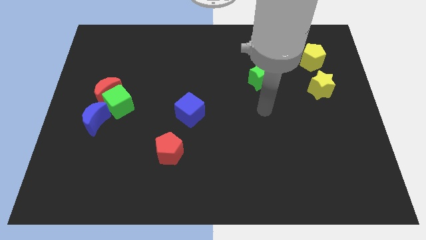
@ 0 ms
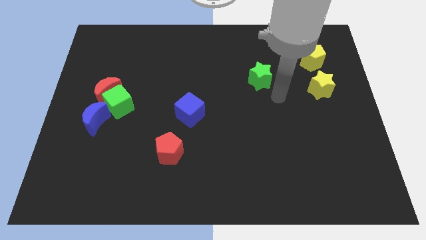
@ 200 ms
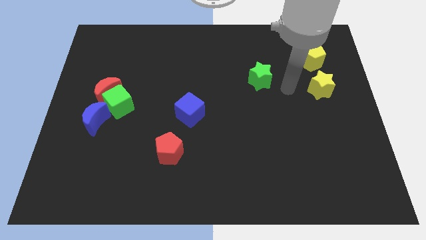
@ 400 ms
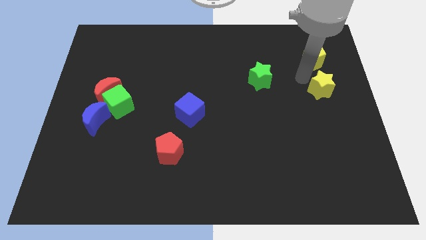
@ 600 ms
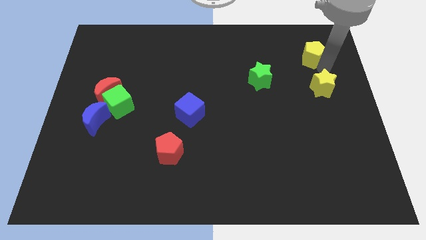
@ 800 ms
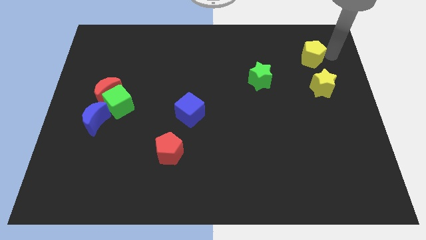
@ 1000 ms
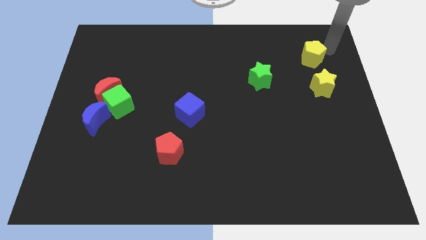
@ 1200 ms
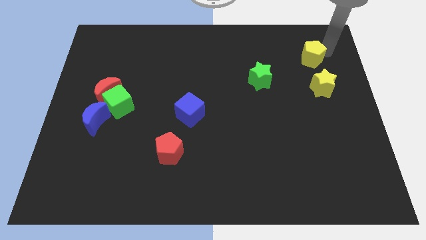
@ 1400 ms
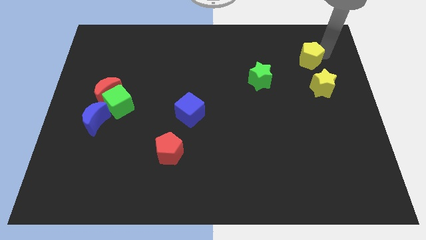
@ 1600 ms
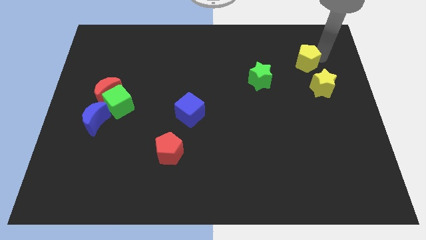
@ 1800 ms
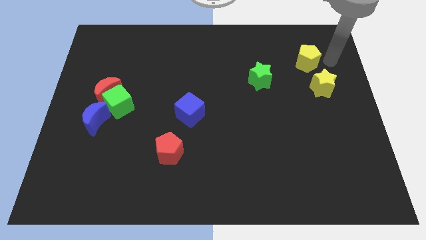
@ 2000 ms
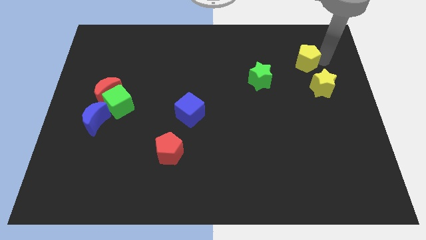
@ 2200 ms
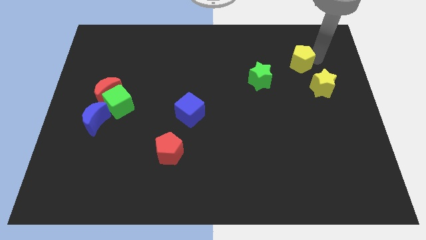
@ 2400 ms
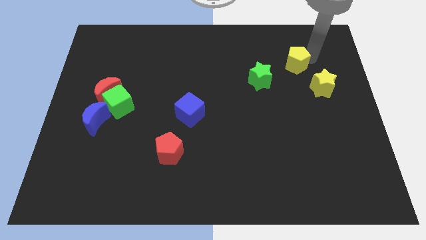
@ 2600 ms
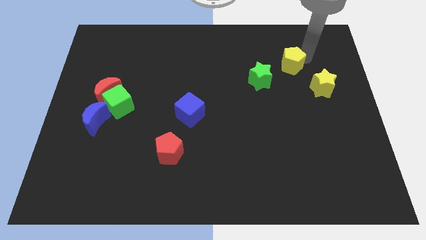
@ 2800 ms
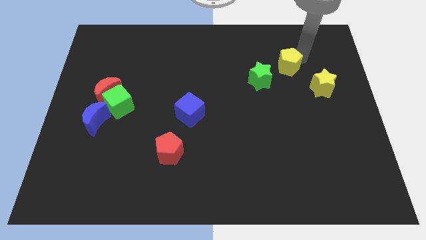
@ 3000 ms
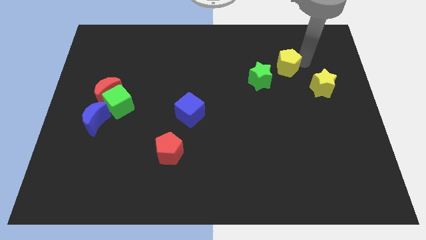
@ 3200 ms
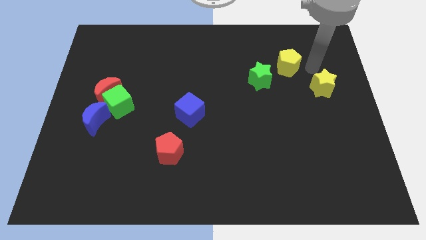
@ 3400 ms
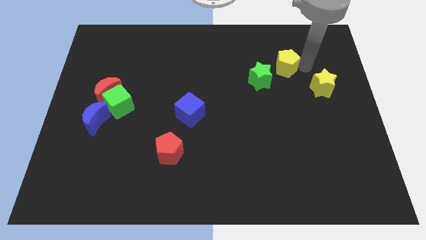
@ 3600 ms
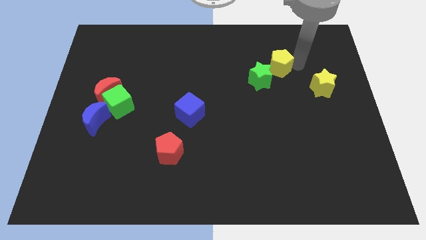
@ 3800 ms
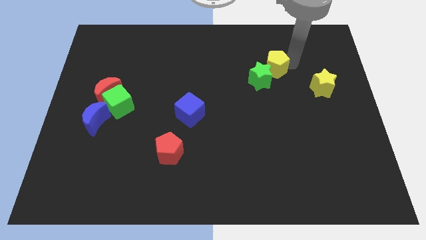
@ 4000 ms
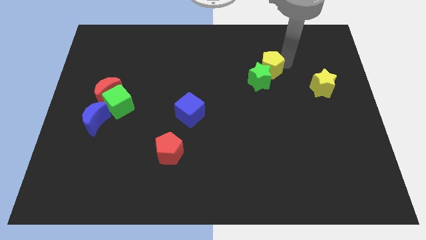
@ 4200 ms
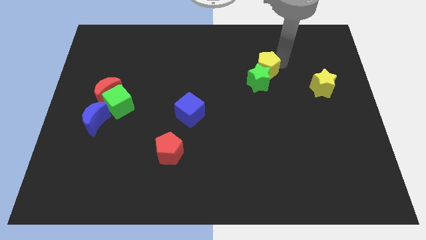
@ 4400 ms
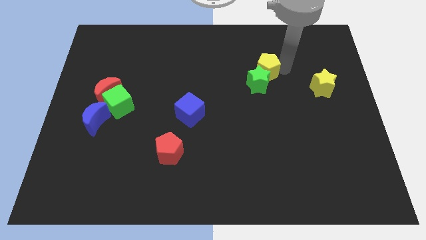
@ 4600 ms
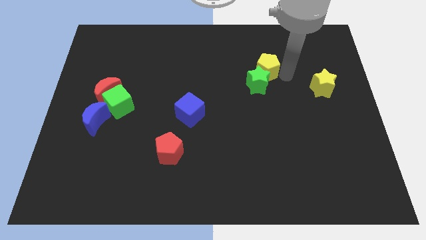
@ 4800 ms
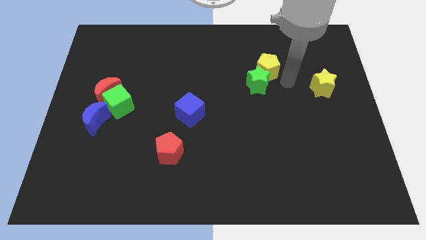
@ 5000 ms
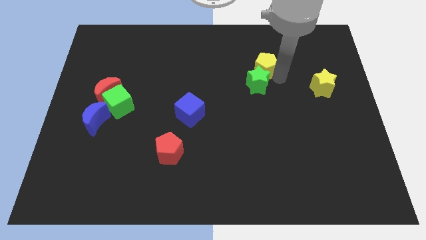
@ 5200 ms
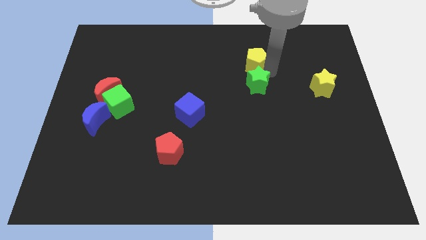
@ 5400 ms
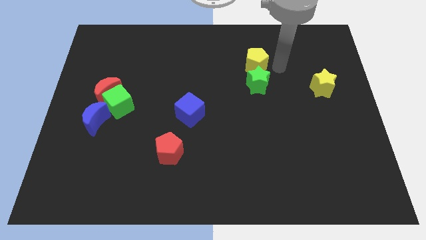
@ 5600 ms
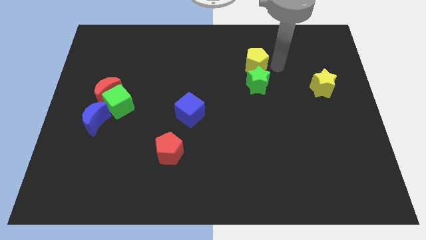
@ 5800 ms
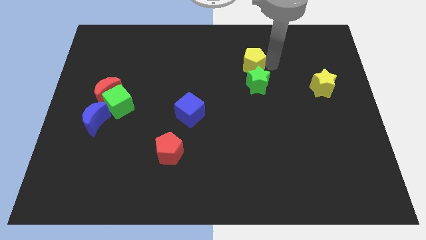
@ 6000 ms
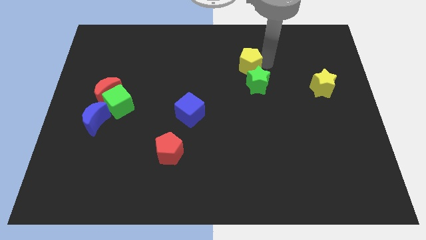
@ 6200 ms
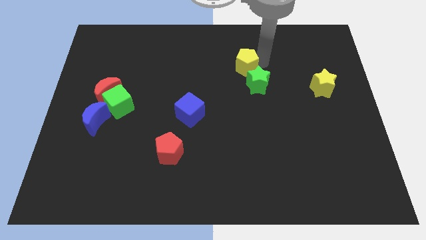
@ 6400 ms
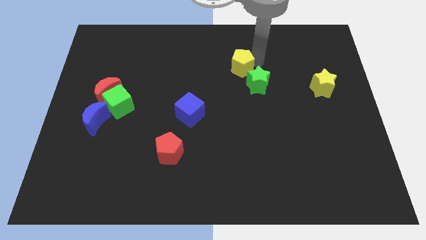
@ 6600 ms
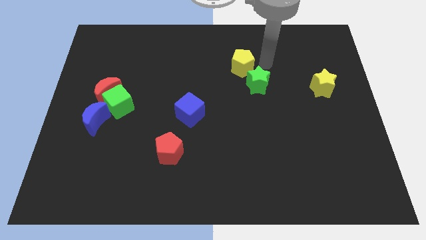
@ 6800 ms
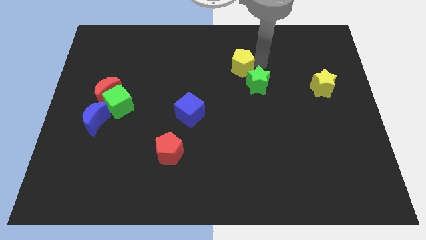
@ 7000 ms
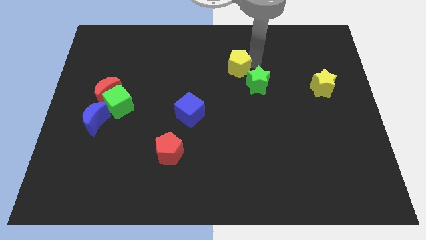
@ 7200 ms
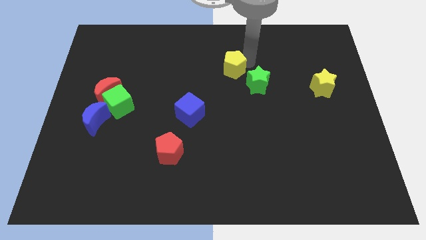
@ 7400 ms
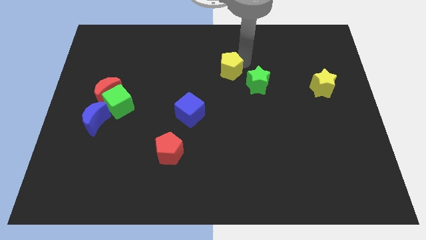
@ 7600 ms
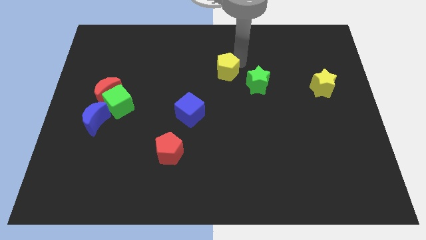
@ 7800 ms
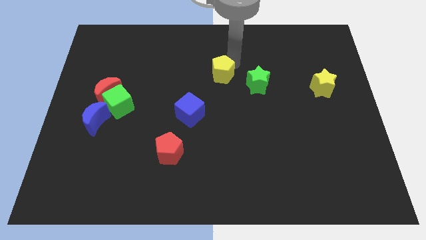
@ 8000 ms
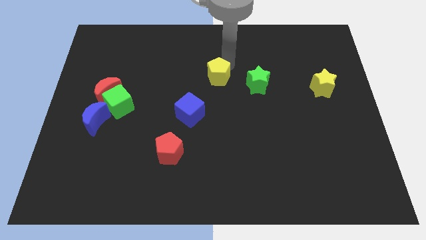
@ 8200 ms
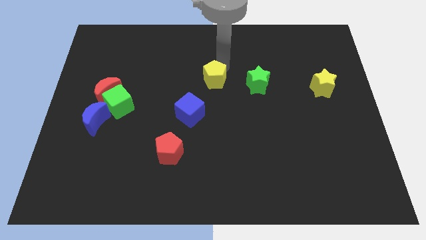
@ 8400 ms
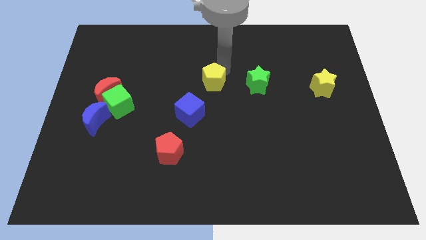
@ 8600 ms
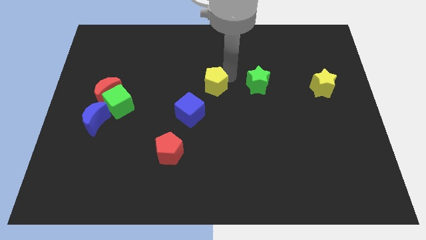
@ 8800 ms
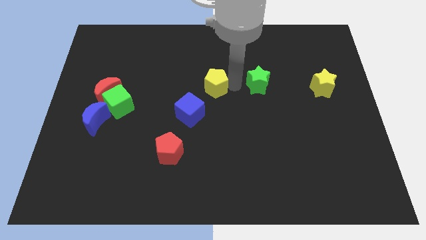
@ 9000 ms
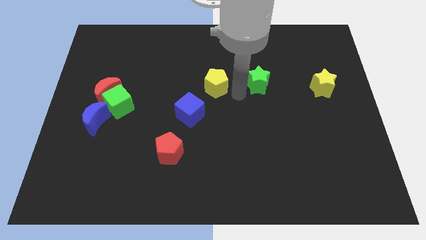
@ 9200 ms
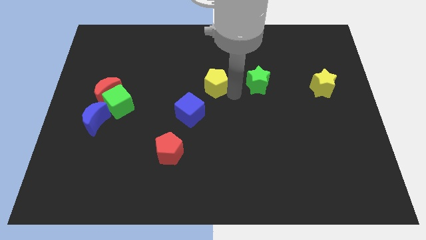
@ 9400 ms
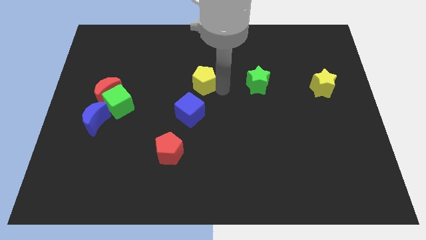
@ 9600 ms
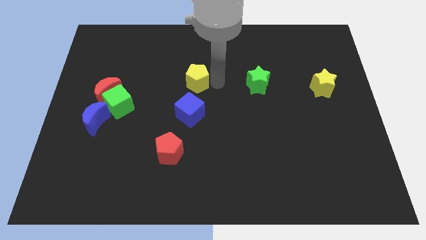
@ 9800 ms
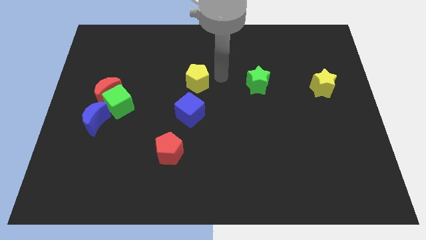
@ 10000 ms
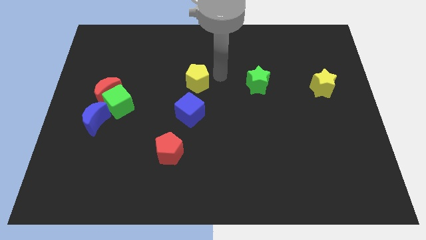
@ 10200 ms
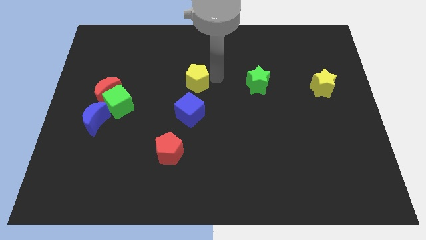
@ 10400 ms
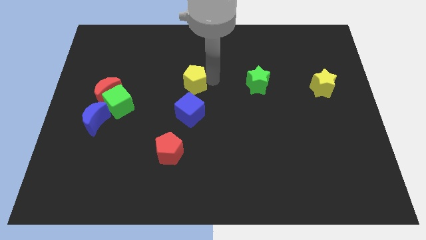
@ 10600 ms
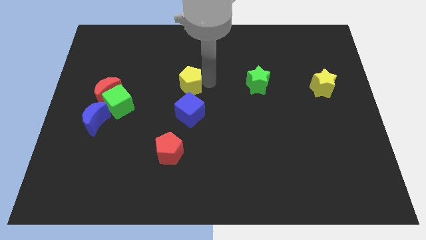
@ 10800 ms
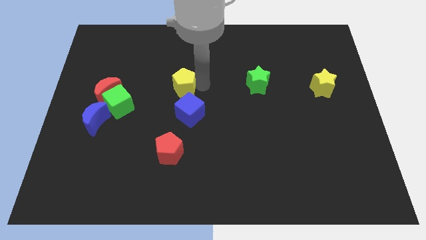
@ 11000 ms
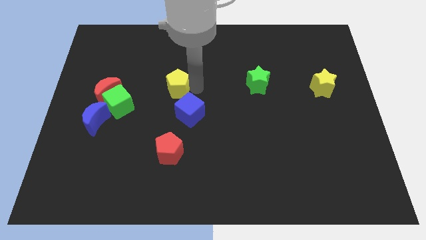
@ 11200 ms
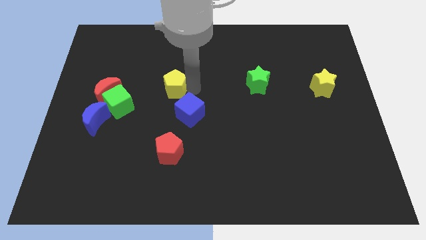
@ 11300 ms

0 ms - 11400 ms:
move the yellow pentagon to the right side of the red moon

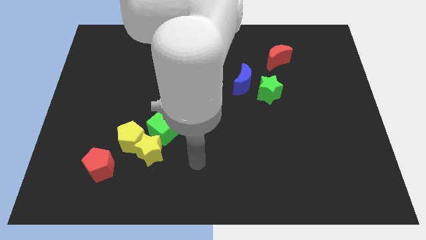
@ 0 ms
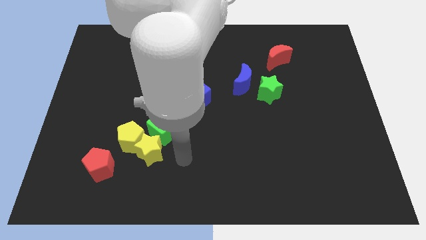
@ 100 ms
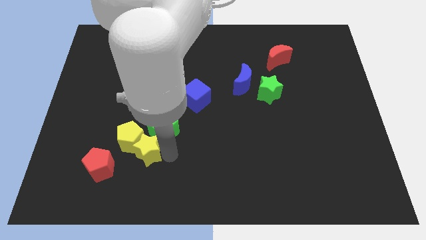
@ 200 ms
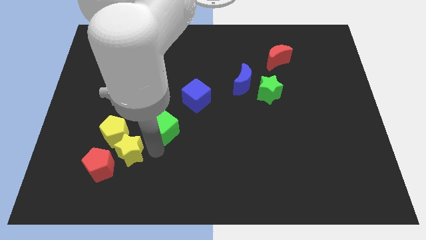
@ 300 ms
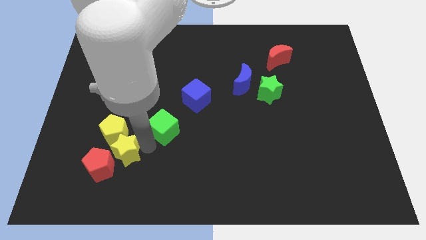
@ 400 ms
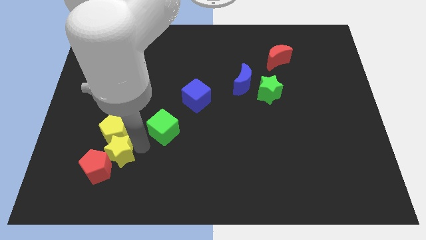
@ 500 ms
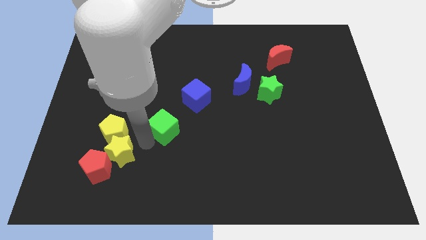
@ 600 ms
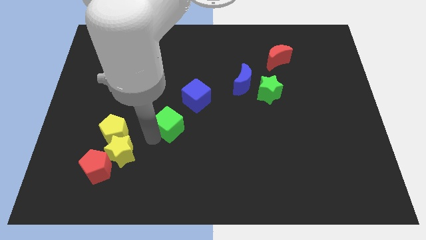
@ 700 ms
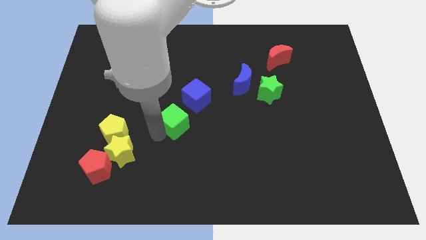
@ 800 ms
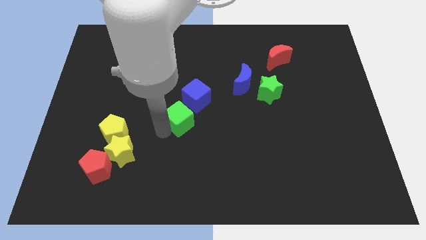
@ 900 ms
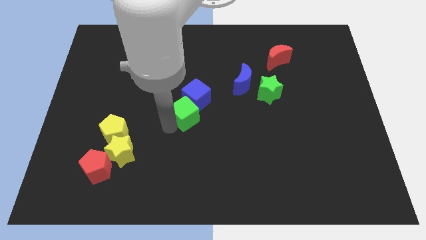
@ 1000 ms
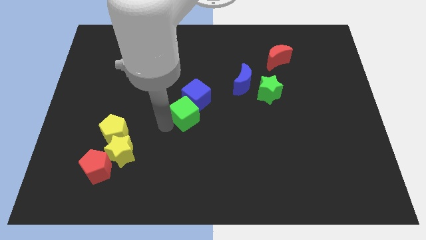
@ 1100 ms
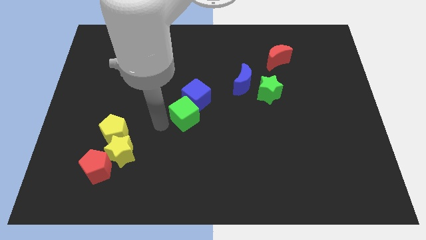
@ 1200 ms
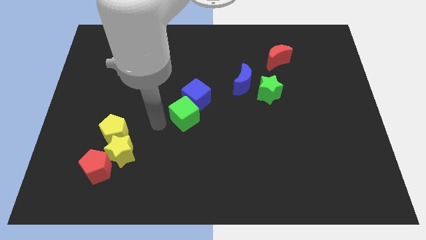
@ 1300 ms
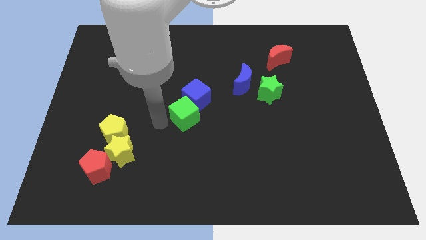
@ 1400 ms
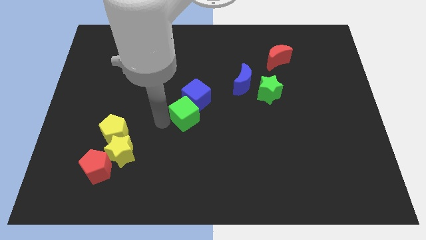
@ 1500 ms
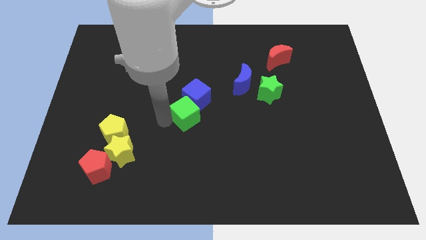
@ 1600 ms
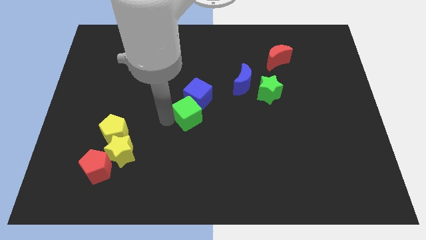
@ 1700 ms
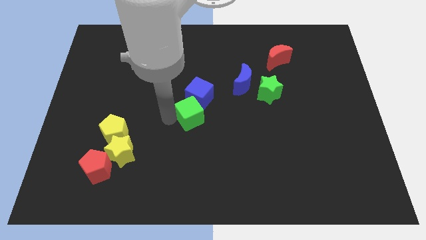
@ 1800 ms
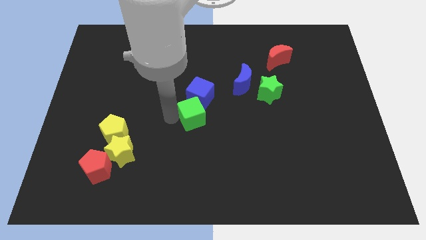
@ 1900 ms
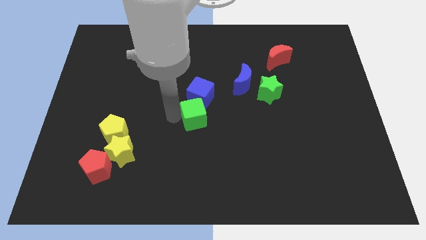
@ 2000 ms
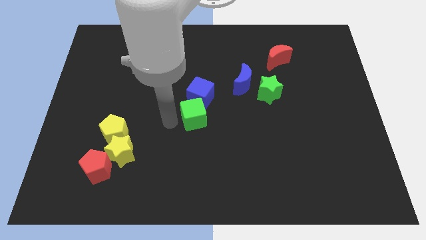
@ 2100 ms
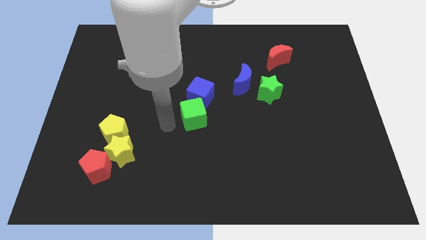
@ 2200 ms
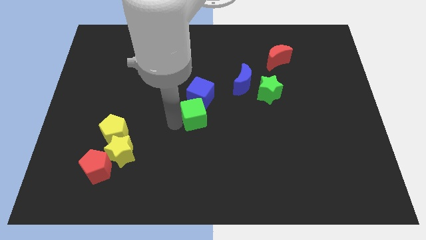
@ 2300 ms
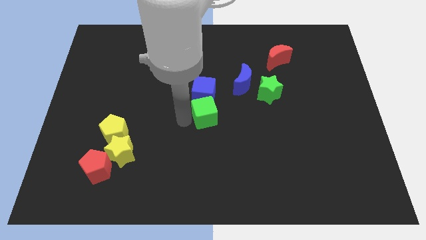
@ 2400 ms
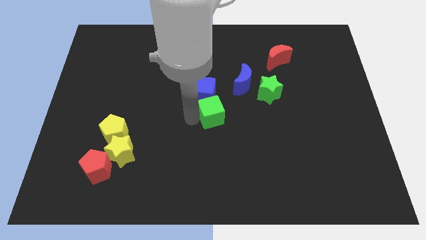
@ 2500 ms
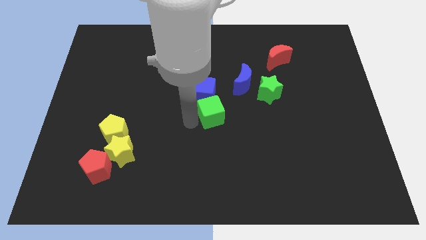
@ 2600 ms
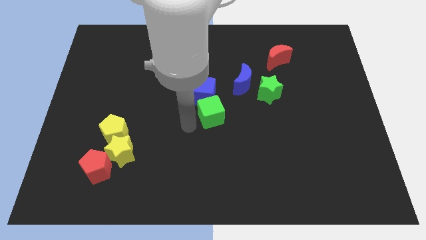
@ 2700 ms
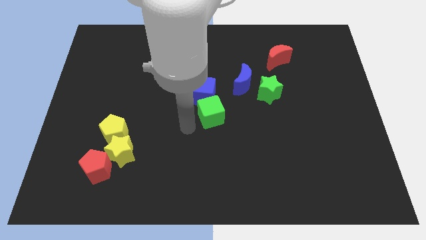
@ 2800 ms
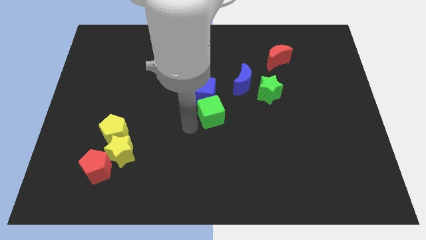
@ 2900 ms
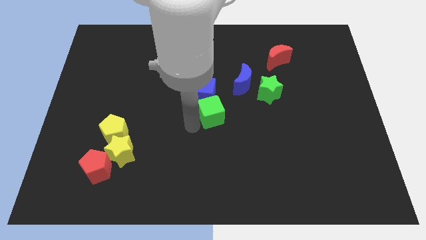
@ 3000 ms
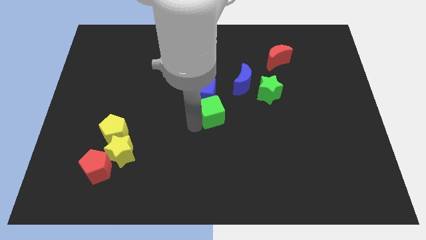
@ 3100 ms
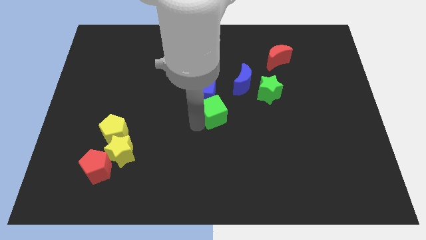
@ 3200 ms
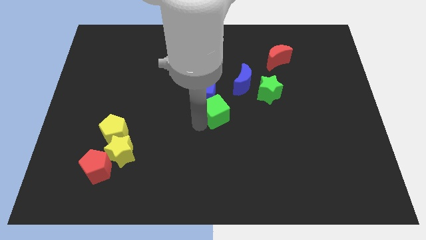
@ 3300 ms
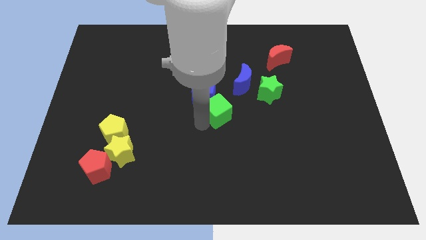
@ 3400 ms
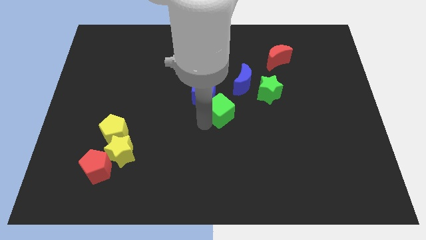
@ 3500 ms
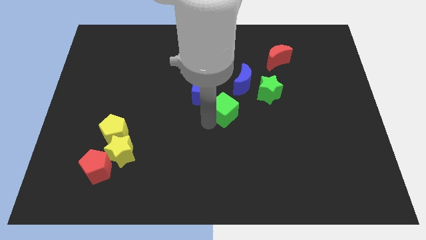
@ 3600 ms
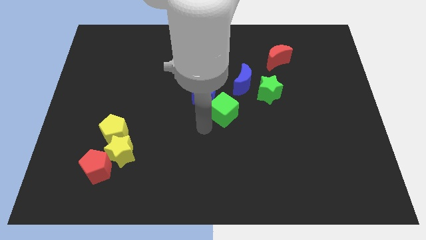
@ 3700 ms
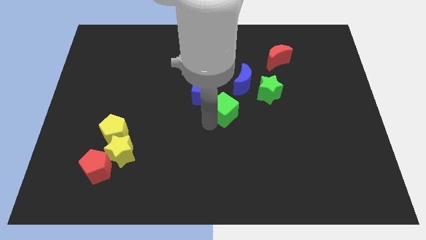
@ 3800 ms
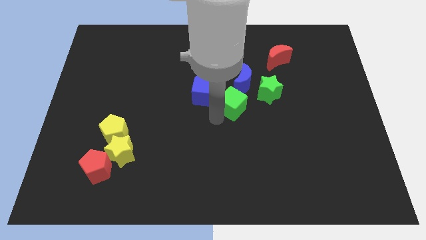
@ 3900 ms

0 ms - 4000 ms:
put the green cube just right of the blue cube
